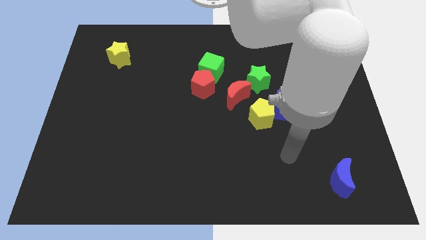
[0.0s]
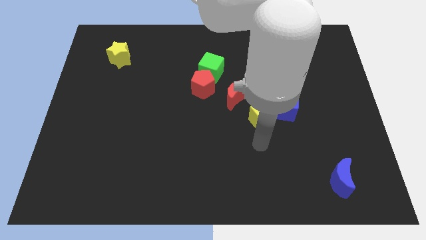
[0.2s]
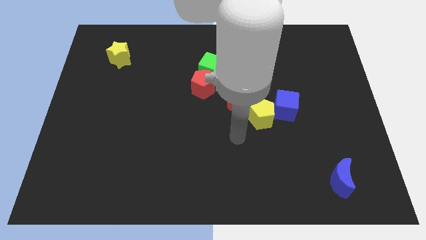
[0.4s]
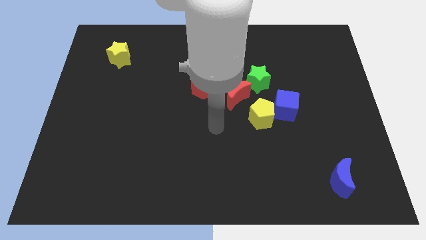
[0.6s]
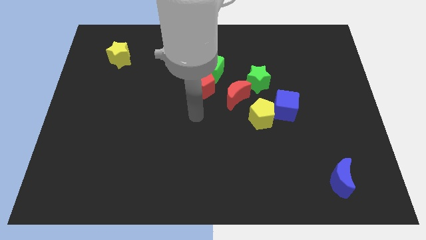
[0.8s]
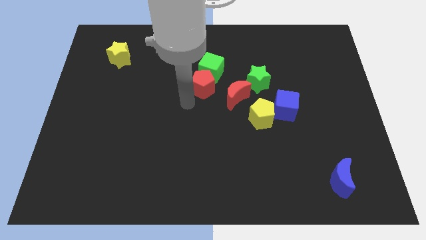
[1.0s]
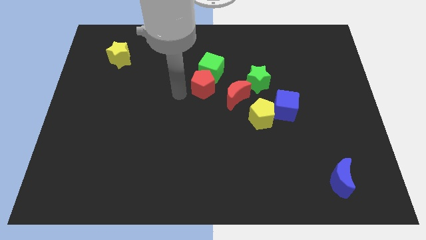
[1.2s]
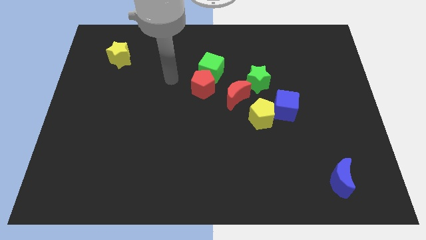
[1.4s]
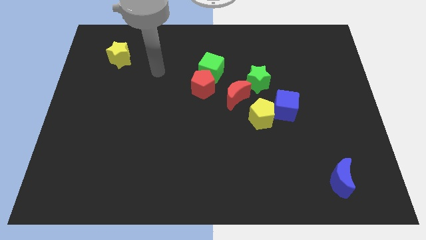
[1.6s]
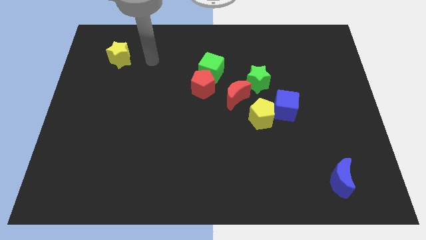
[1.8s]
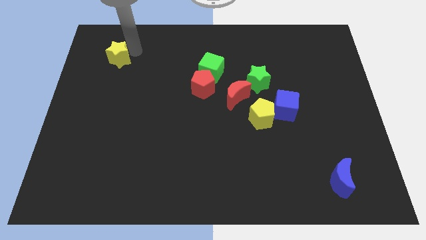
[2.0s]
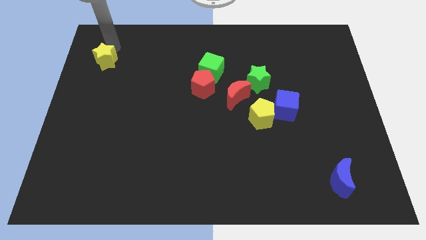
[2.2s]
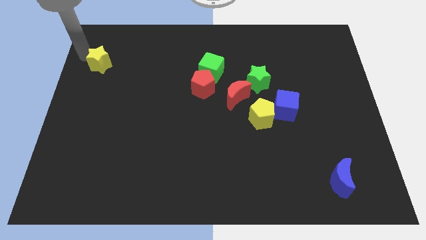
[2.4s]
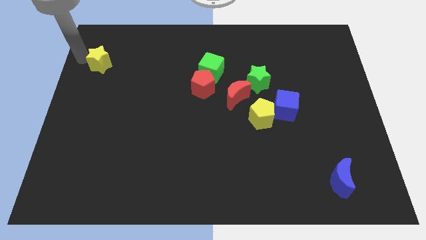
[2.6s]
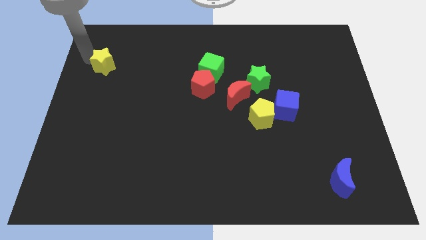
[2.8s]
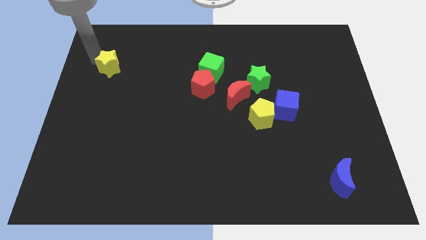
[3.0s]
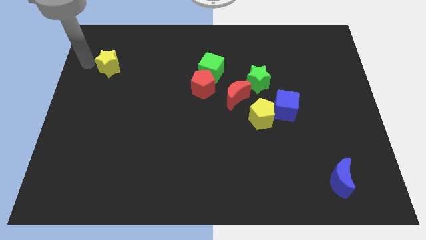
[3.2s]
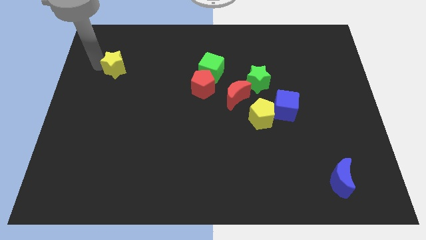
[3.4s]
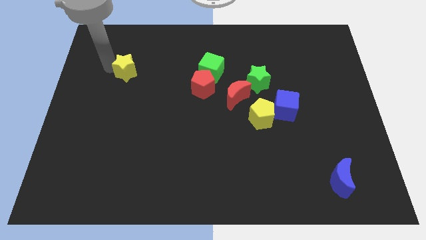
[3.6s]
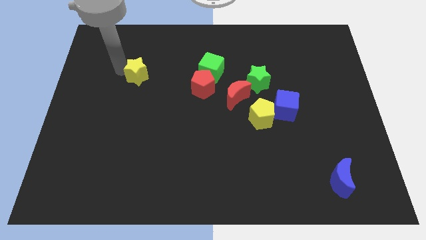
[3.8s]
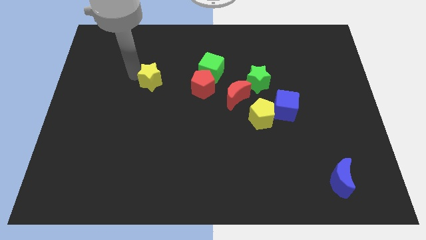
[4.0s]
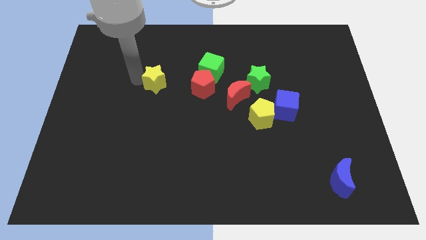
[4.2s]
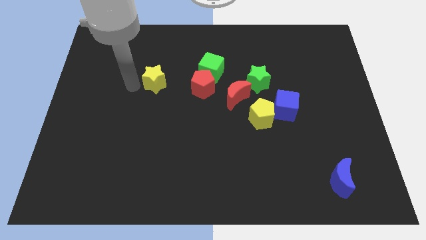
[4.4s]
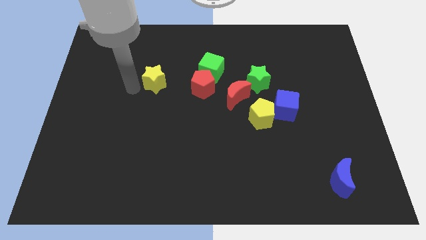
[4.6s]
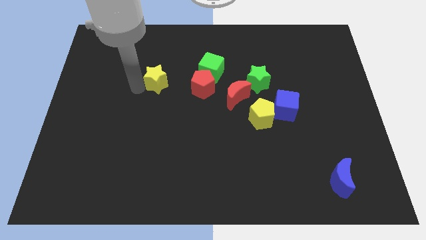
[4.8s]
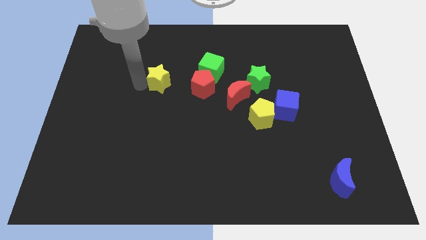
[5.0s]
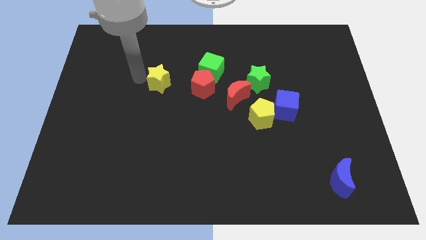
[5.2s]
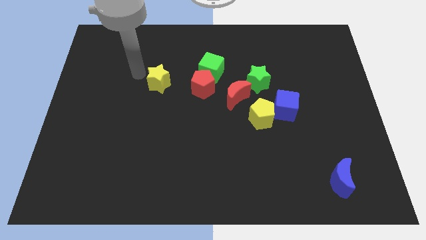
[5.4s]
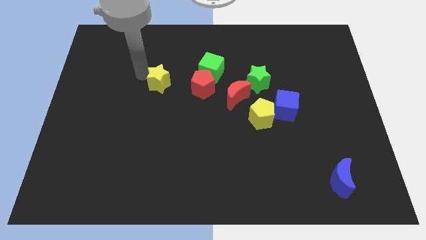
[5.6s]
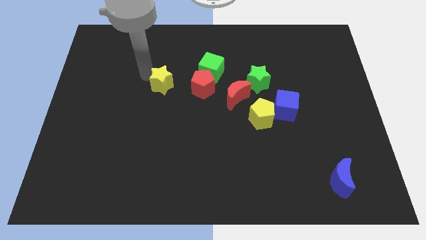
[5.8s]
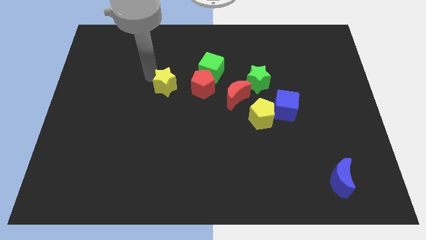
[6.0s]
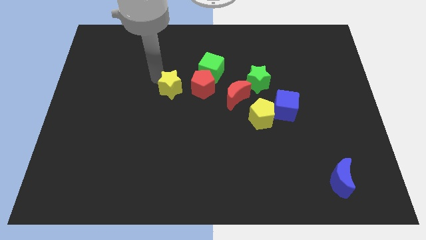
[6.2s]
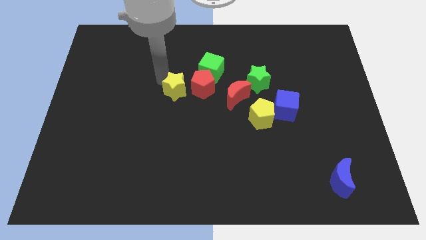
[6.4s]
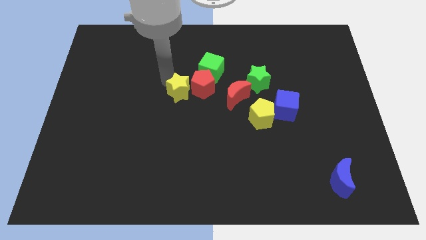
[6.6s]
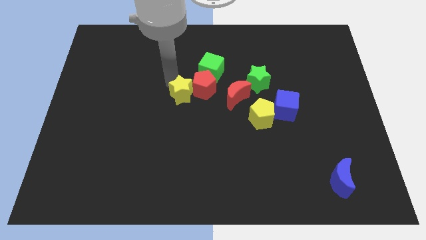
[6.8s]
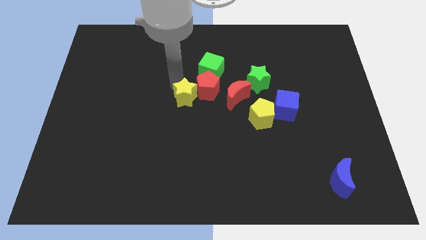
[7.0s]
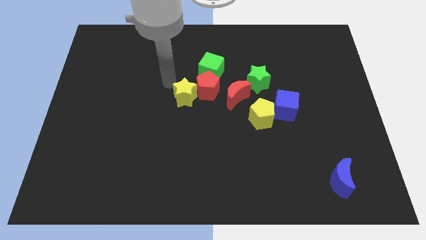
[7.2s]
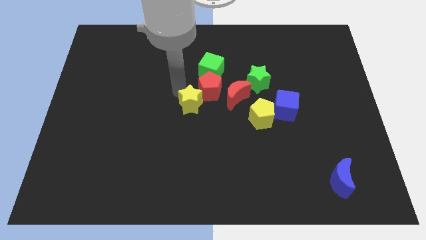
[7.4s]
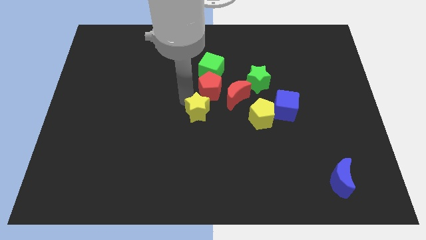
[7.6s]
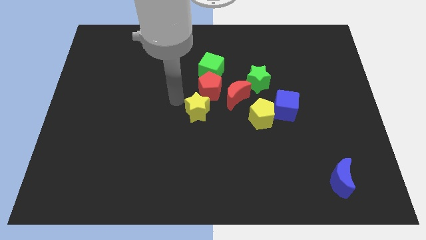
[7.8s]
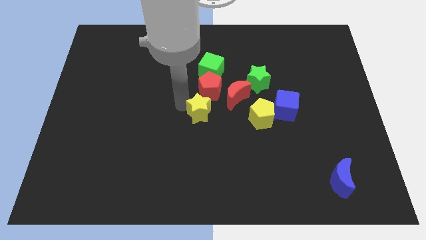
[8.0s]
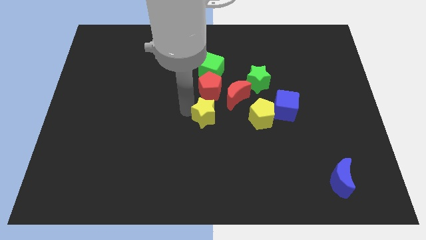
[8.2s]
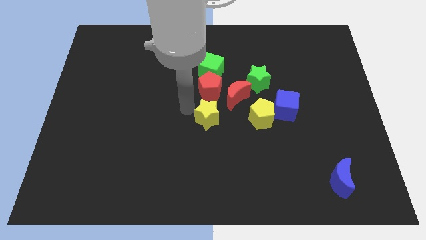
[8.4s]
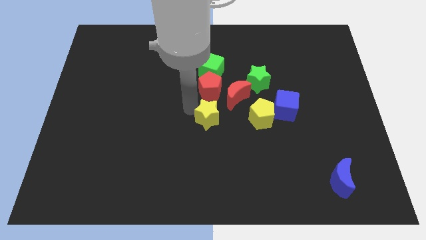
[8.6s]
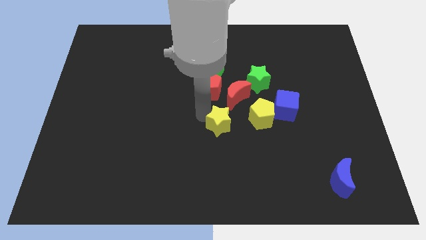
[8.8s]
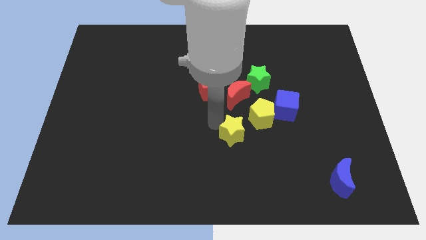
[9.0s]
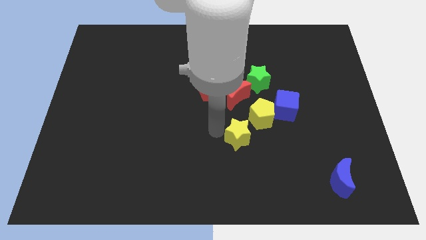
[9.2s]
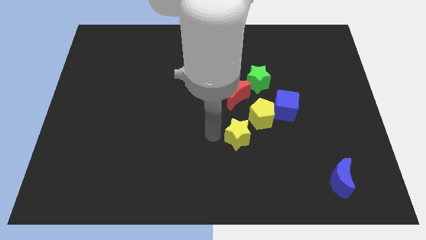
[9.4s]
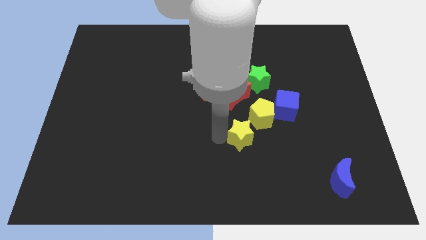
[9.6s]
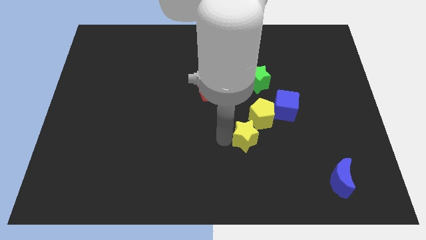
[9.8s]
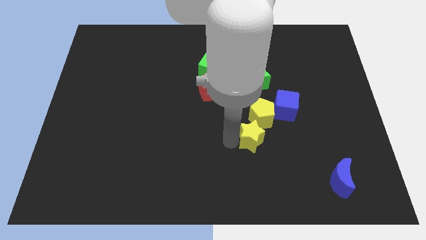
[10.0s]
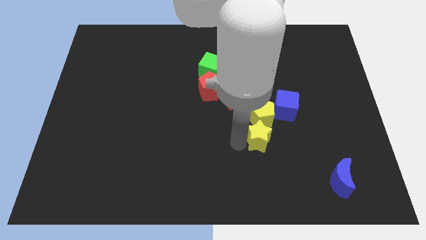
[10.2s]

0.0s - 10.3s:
slide the yellow star to the bottom right of the yellow pentagon

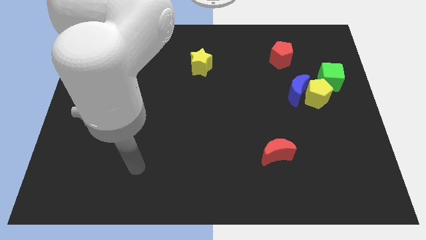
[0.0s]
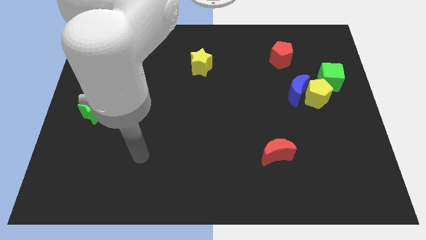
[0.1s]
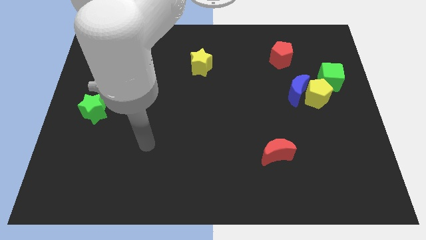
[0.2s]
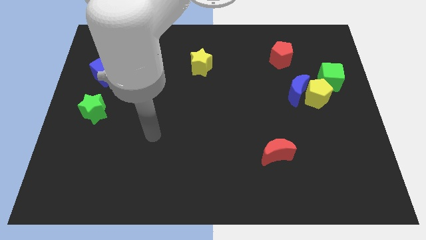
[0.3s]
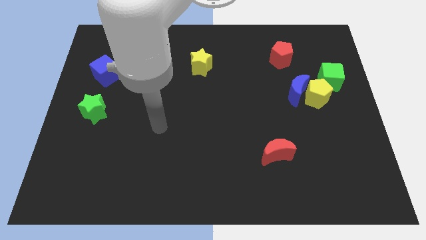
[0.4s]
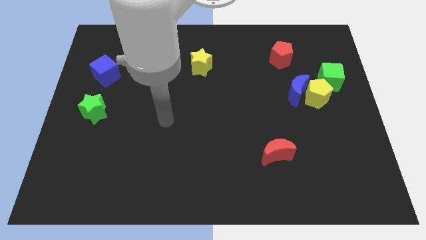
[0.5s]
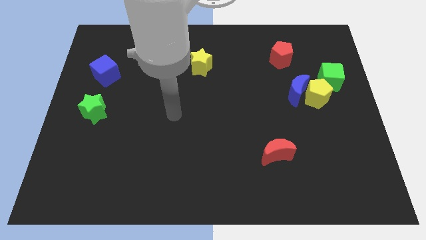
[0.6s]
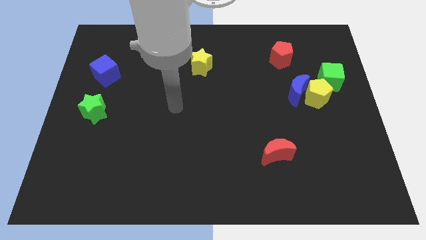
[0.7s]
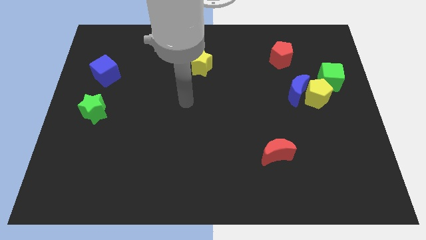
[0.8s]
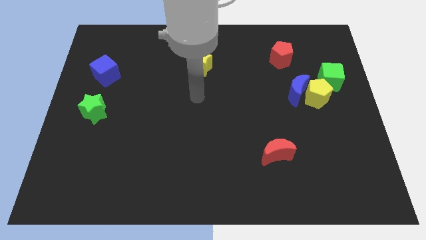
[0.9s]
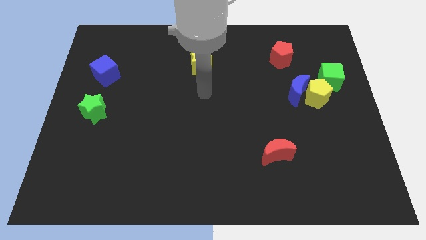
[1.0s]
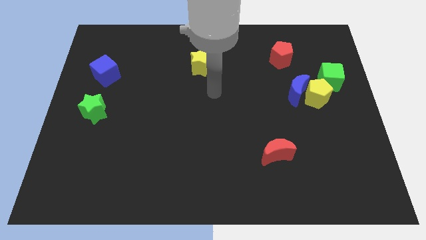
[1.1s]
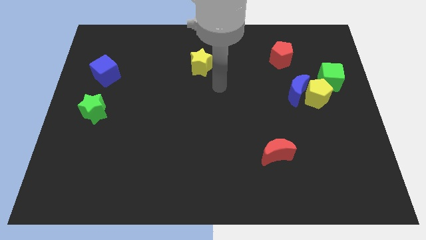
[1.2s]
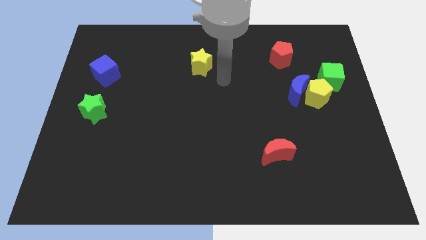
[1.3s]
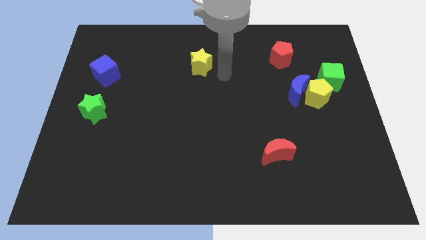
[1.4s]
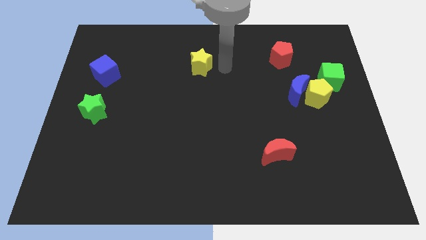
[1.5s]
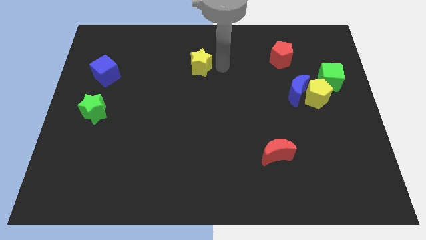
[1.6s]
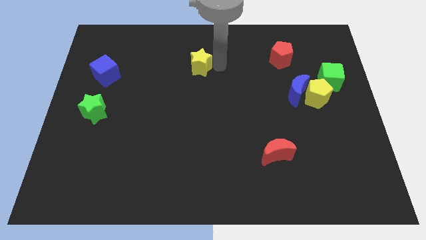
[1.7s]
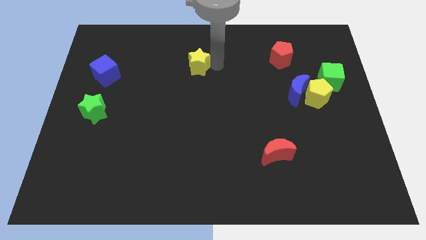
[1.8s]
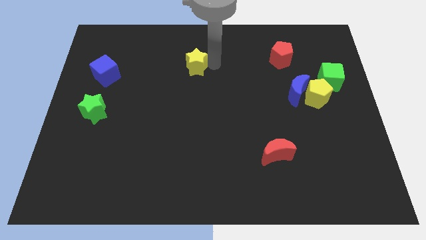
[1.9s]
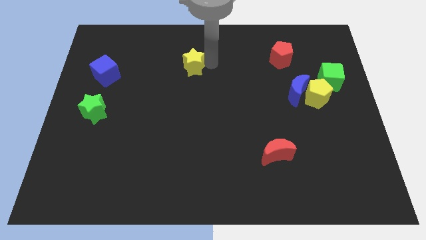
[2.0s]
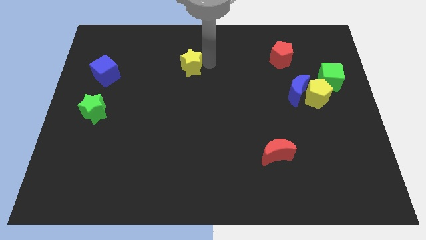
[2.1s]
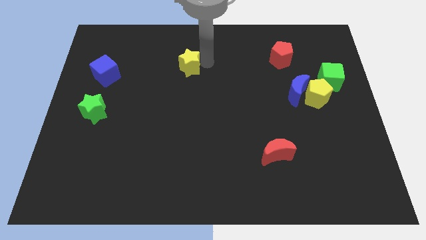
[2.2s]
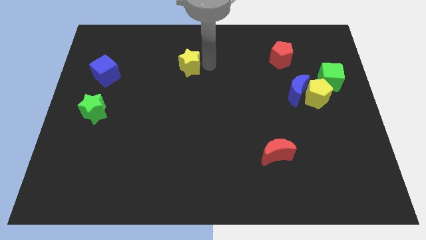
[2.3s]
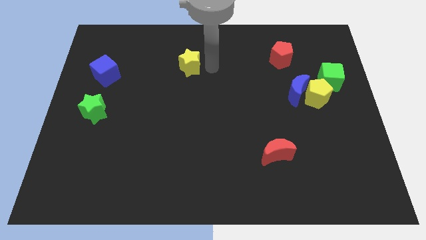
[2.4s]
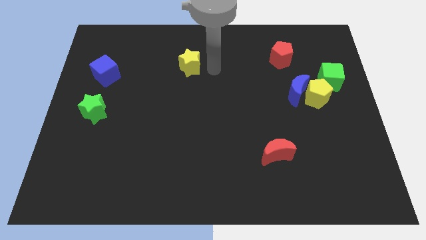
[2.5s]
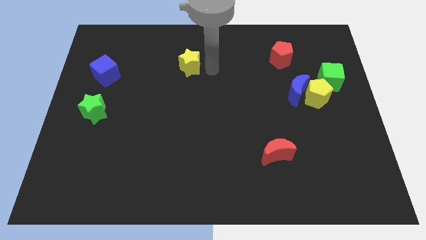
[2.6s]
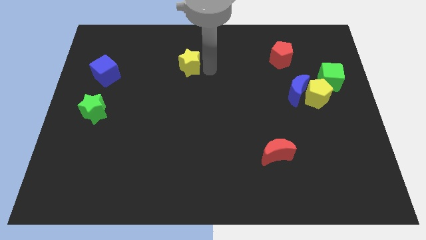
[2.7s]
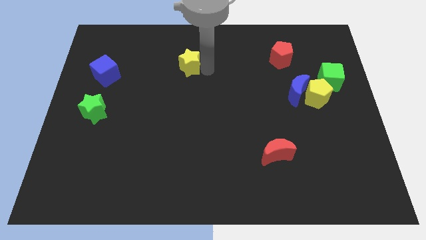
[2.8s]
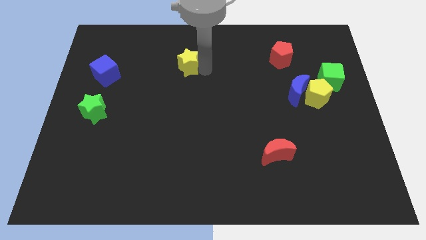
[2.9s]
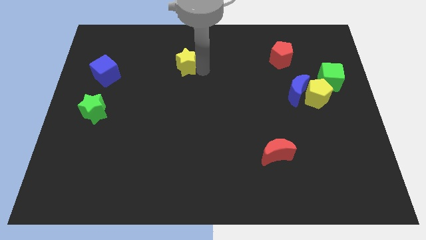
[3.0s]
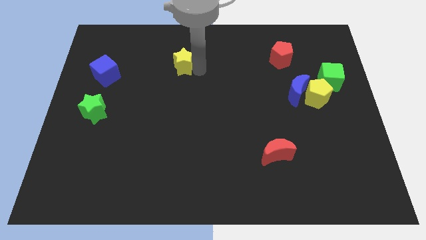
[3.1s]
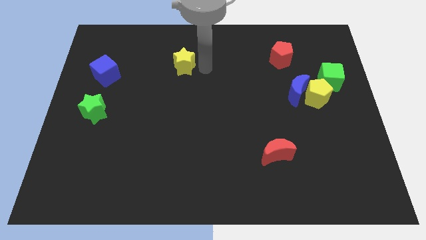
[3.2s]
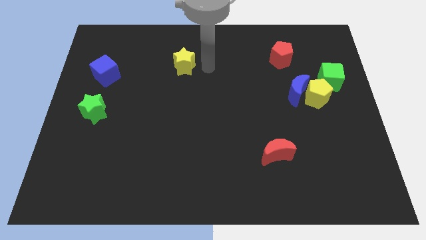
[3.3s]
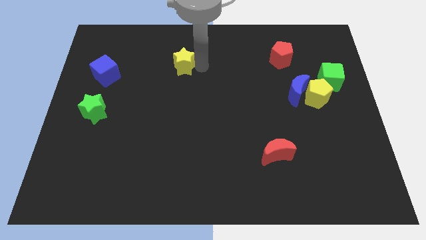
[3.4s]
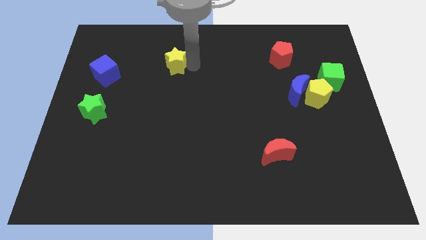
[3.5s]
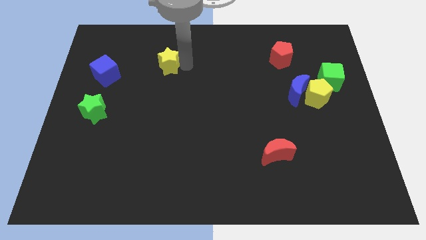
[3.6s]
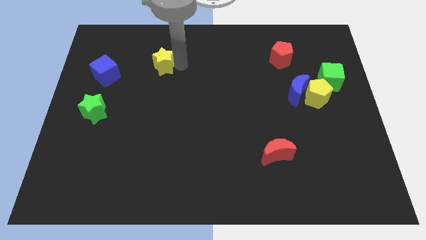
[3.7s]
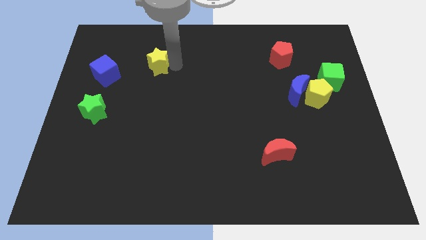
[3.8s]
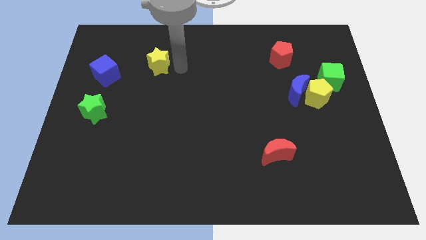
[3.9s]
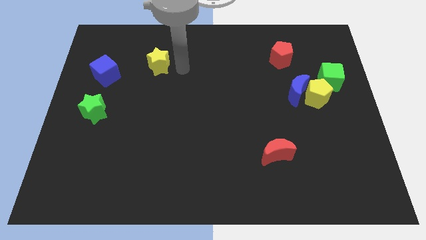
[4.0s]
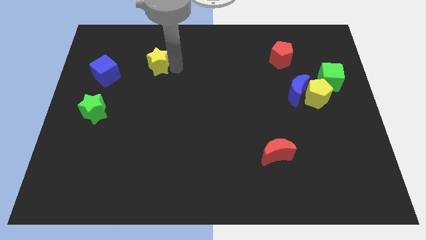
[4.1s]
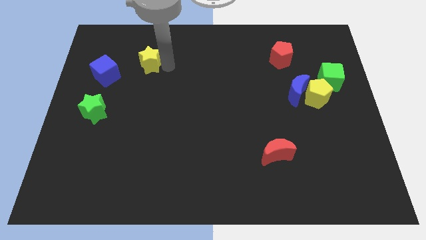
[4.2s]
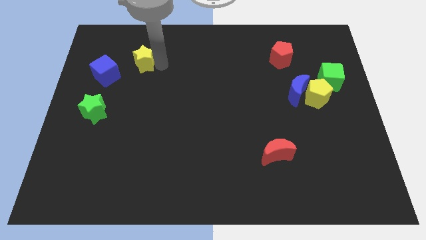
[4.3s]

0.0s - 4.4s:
move the yellow star to the top right of the blue cube
